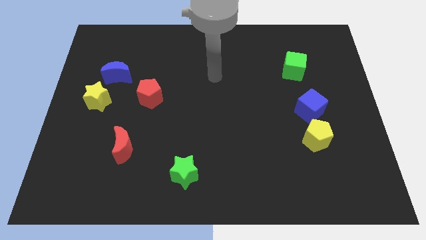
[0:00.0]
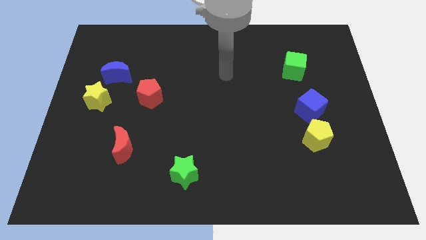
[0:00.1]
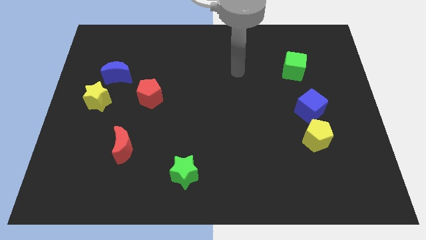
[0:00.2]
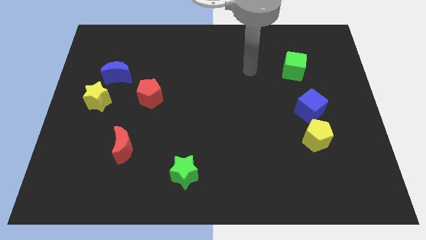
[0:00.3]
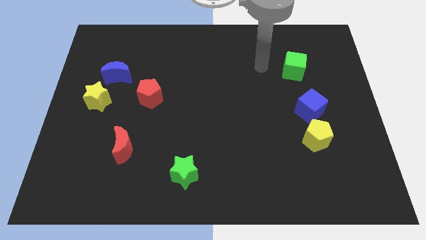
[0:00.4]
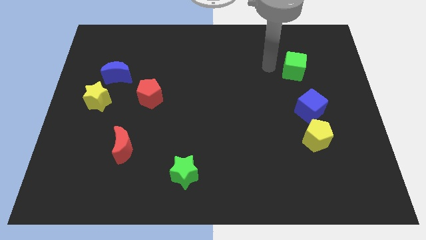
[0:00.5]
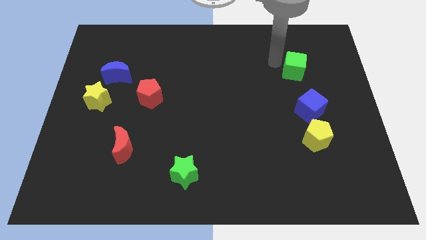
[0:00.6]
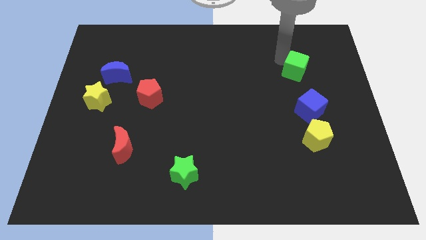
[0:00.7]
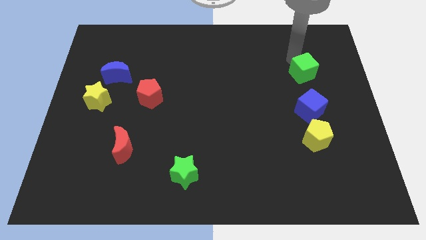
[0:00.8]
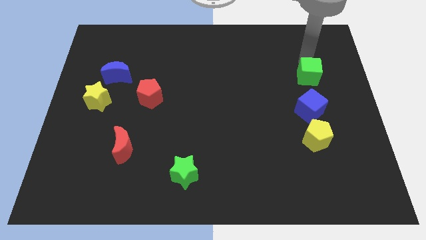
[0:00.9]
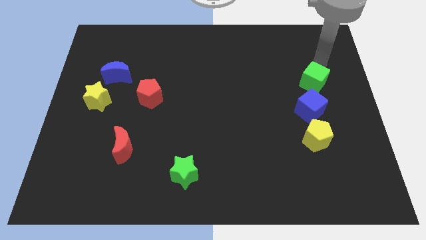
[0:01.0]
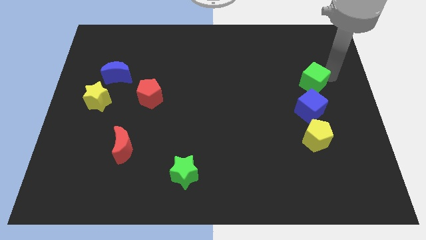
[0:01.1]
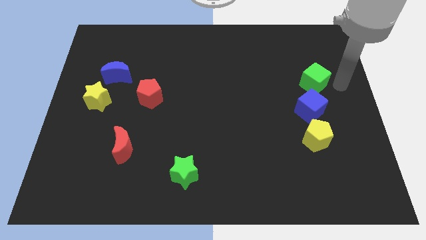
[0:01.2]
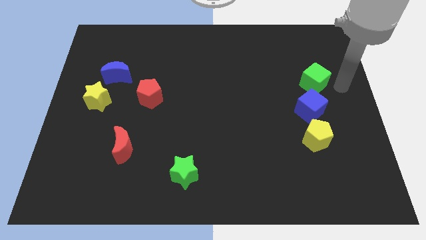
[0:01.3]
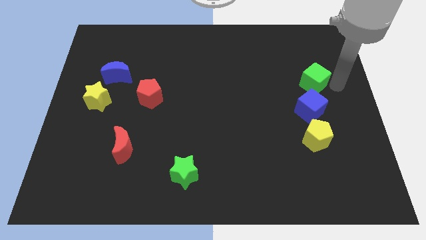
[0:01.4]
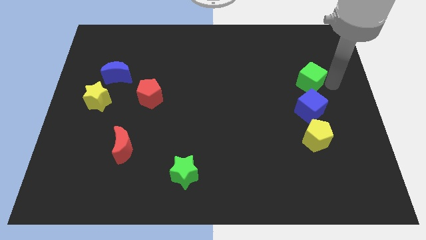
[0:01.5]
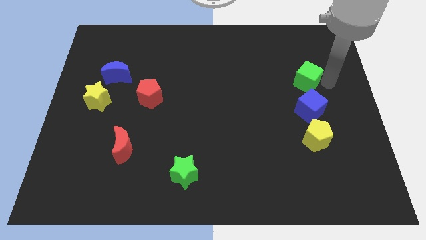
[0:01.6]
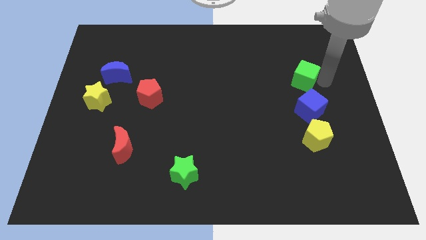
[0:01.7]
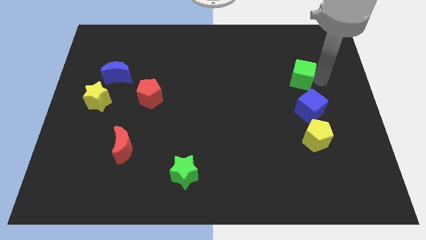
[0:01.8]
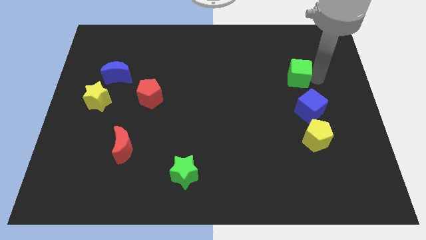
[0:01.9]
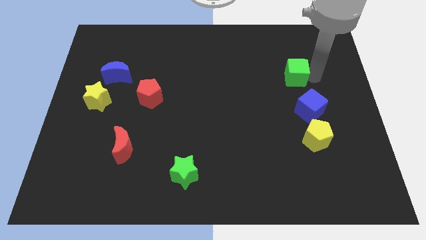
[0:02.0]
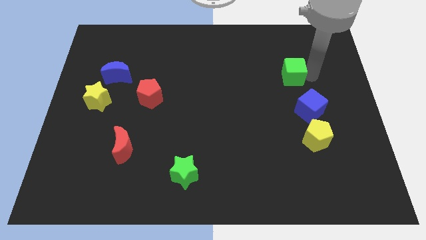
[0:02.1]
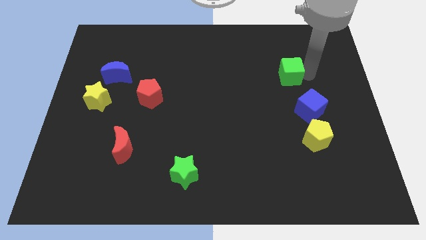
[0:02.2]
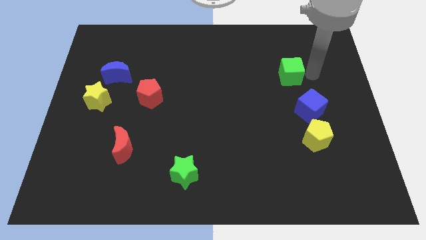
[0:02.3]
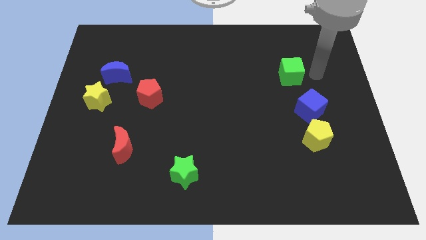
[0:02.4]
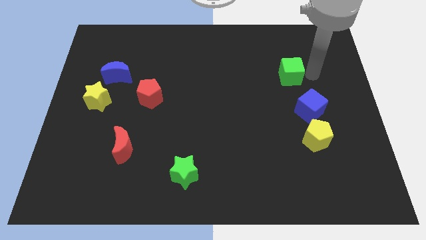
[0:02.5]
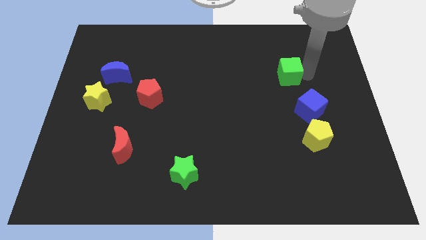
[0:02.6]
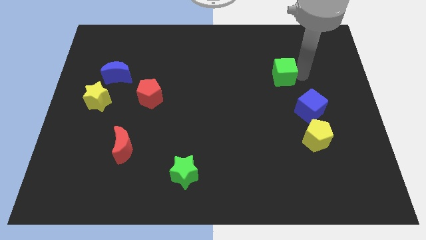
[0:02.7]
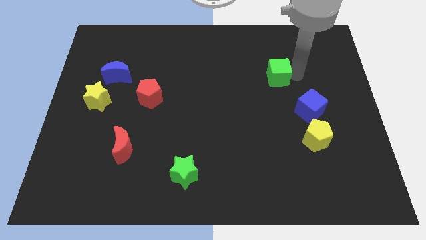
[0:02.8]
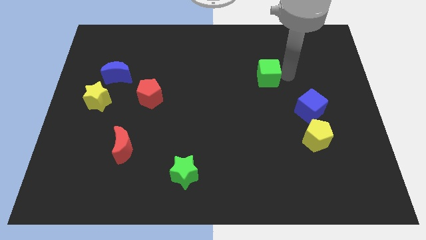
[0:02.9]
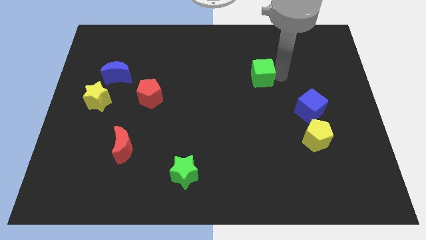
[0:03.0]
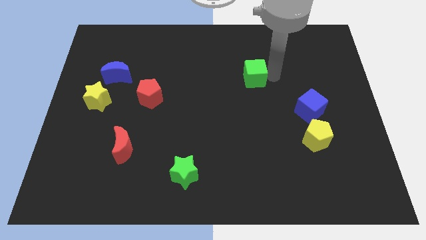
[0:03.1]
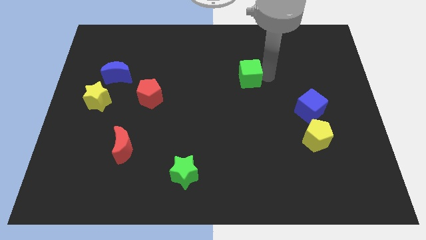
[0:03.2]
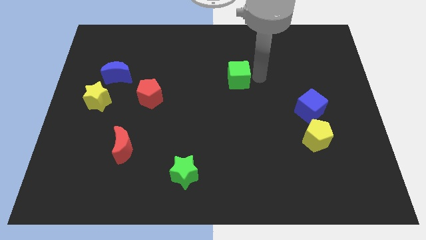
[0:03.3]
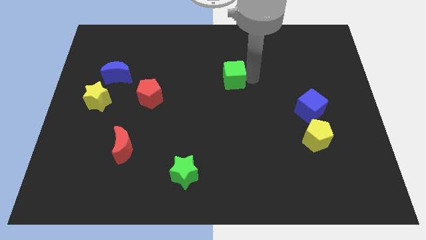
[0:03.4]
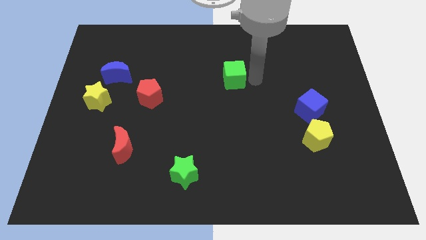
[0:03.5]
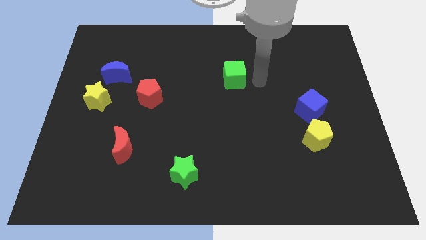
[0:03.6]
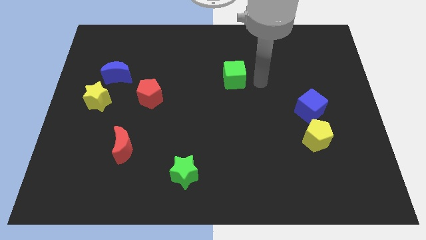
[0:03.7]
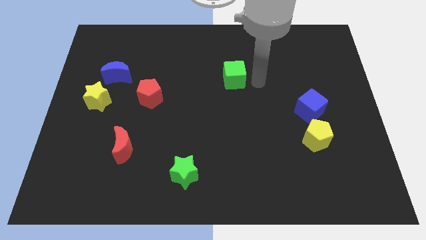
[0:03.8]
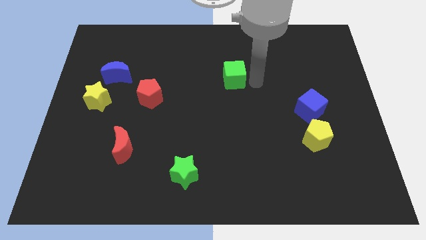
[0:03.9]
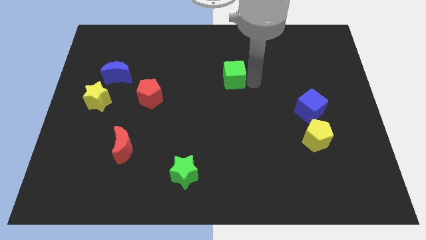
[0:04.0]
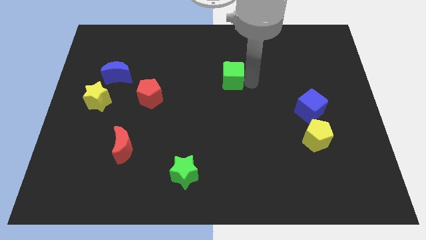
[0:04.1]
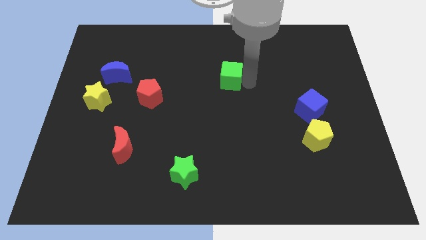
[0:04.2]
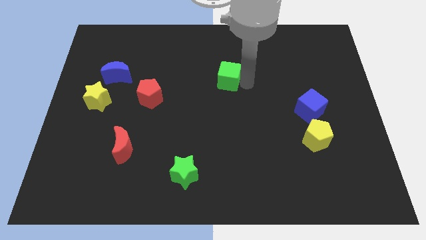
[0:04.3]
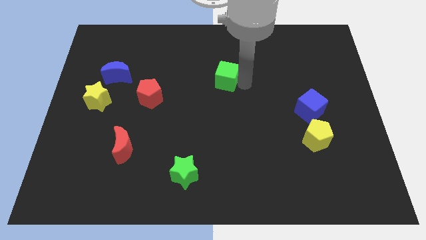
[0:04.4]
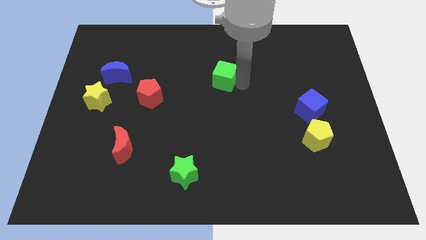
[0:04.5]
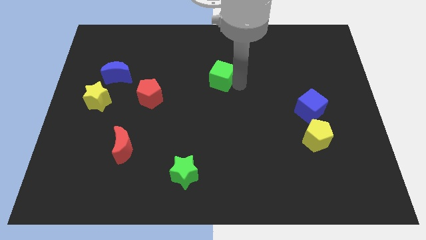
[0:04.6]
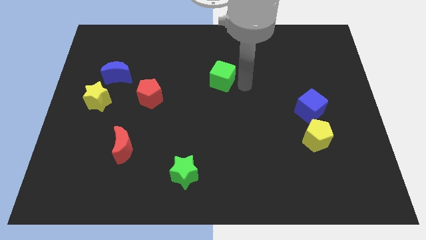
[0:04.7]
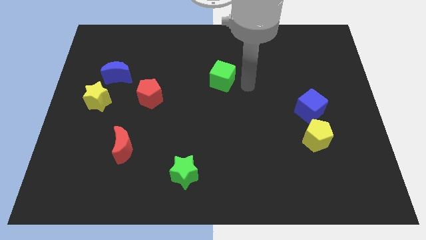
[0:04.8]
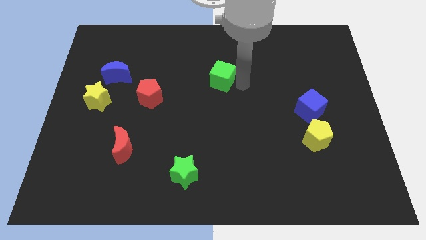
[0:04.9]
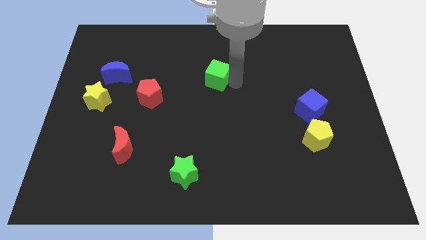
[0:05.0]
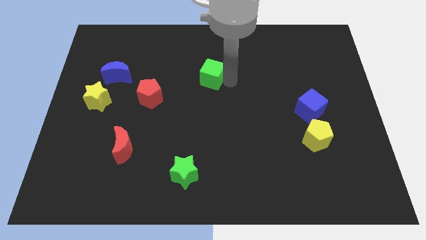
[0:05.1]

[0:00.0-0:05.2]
push the green cube left
